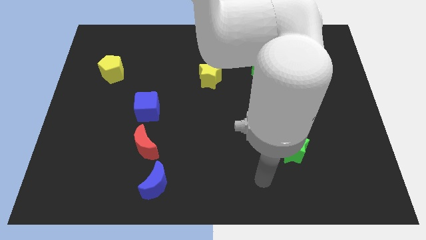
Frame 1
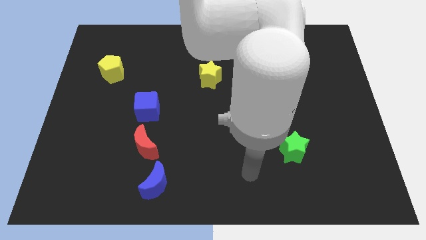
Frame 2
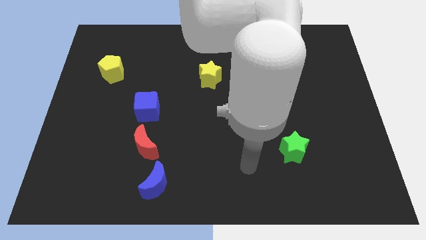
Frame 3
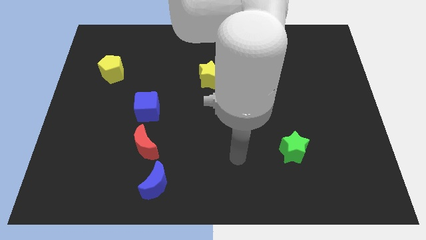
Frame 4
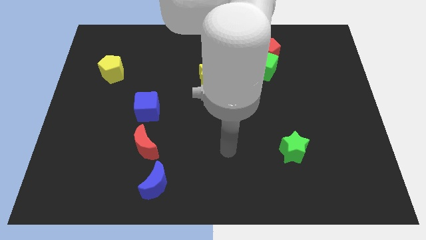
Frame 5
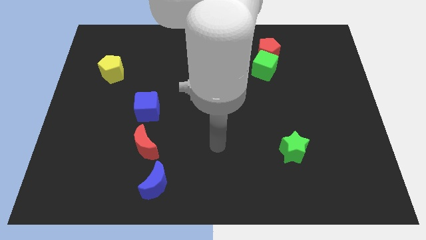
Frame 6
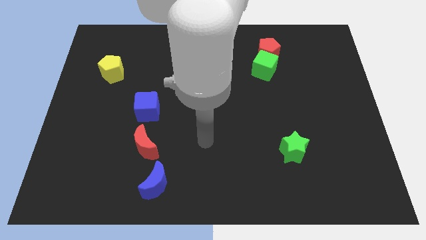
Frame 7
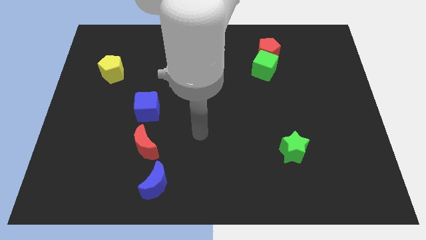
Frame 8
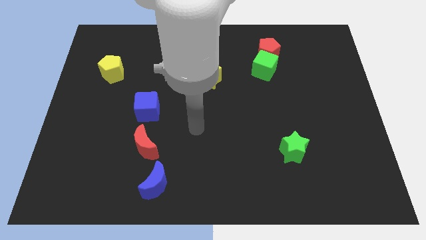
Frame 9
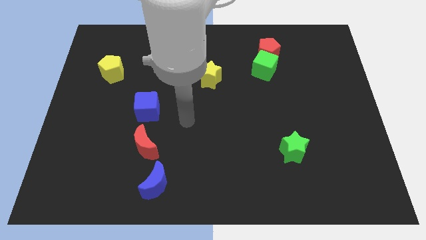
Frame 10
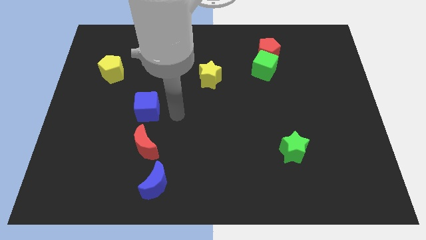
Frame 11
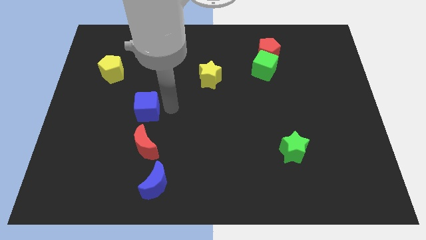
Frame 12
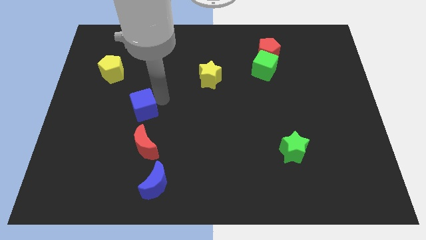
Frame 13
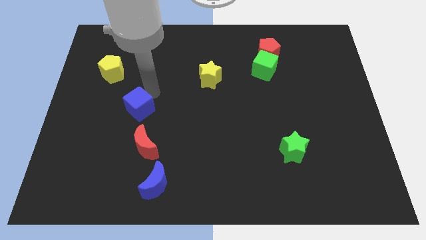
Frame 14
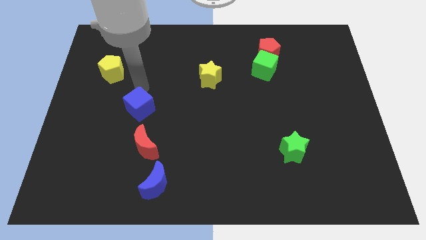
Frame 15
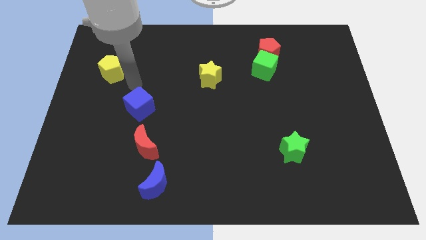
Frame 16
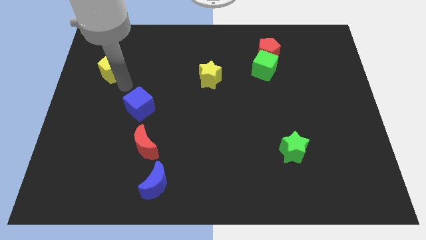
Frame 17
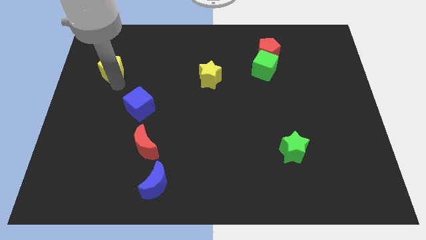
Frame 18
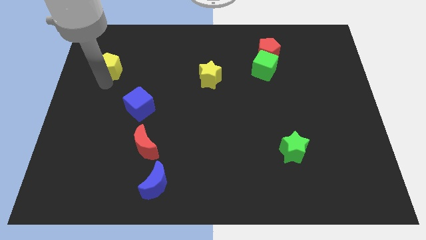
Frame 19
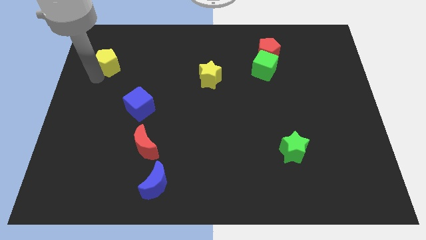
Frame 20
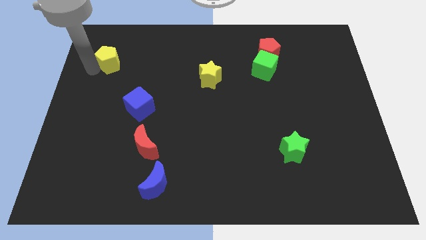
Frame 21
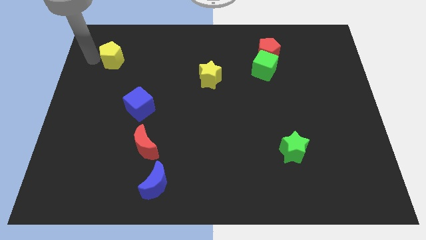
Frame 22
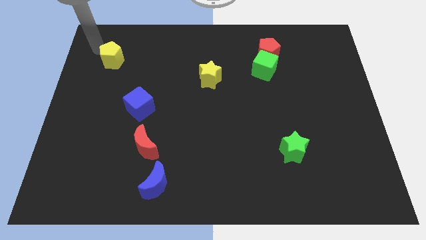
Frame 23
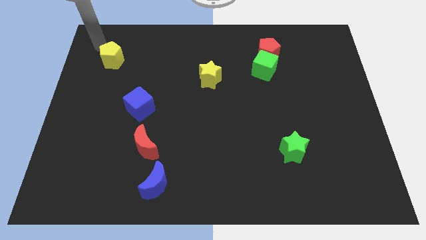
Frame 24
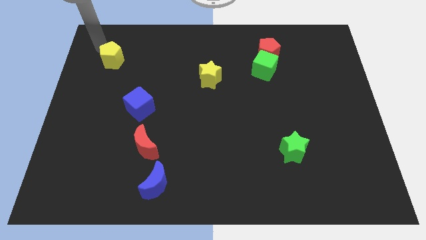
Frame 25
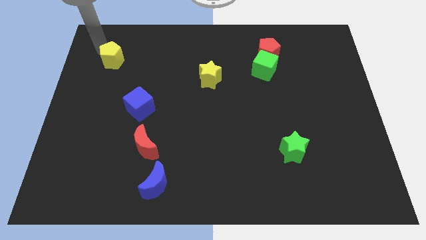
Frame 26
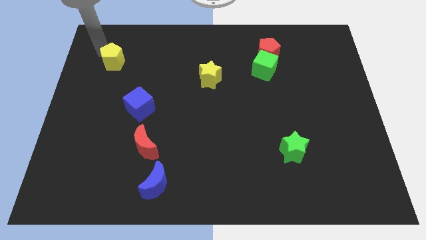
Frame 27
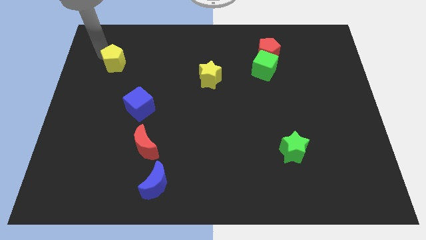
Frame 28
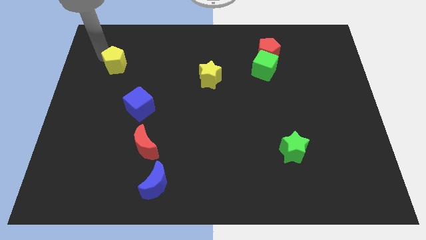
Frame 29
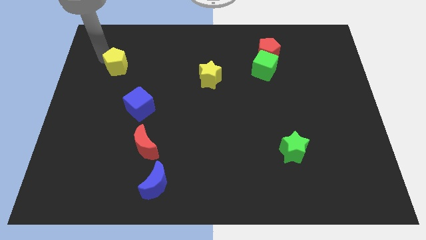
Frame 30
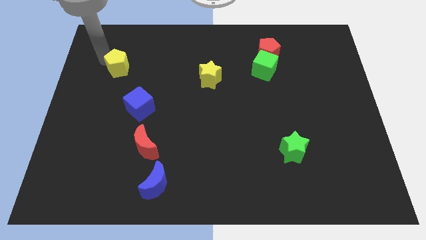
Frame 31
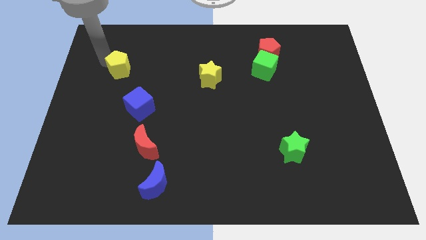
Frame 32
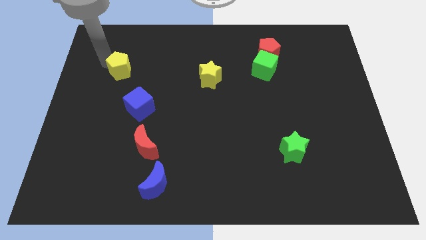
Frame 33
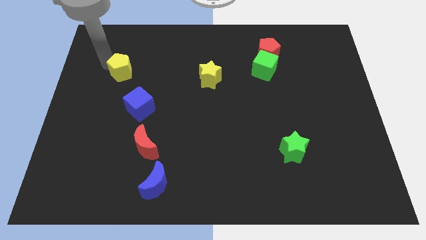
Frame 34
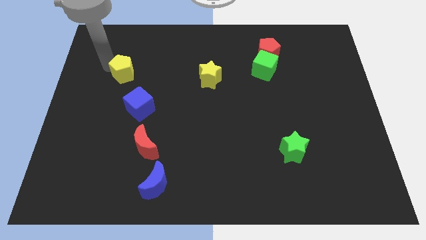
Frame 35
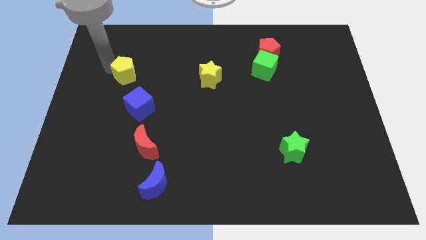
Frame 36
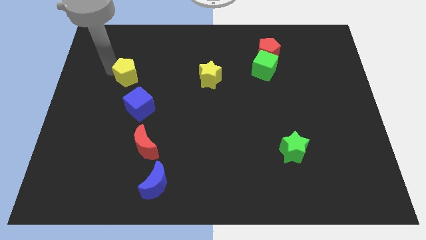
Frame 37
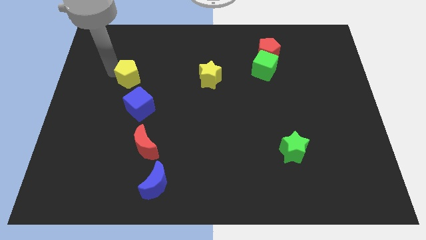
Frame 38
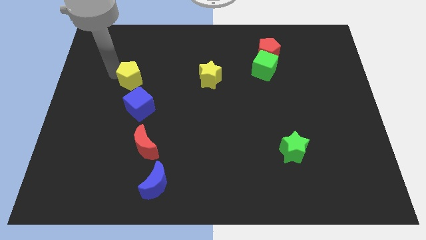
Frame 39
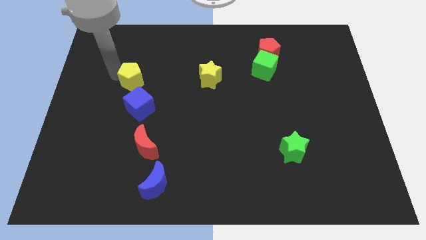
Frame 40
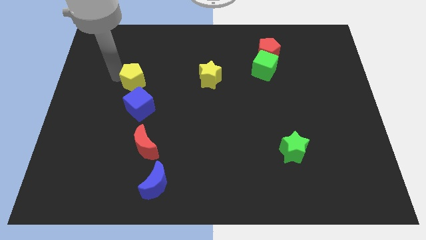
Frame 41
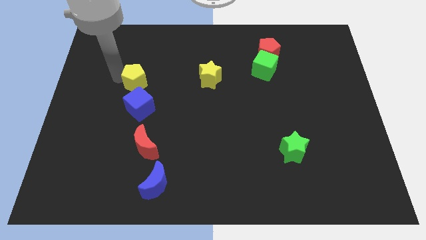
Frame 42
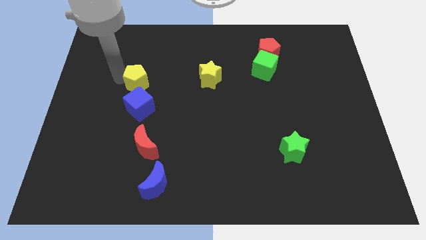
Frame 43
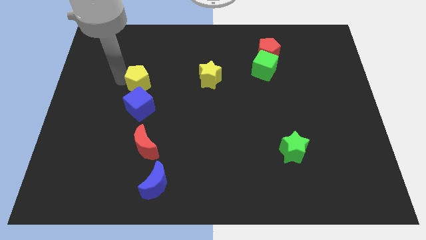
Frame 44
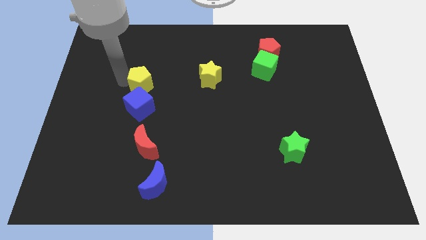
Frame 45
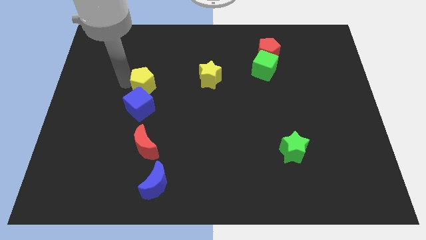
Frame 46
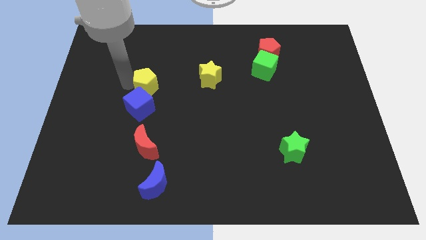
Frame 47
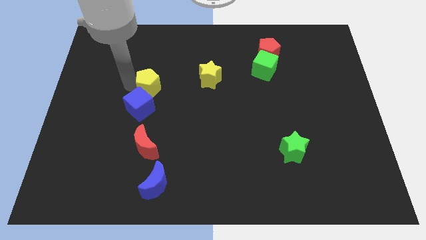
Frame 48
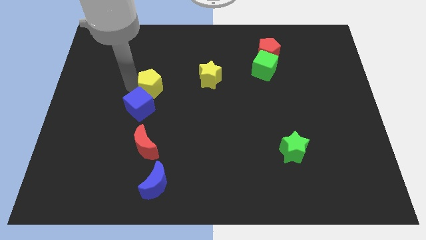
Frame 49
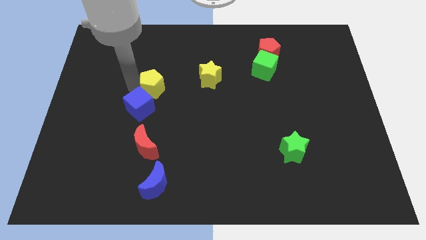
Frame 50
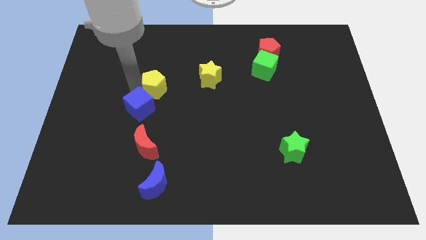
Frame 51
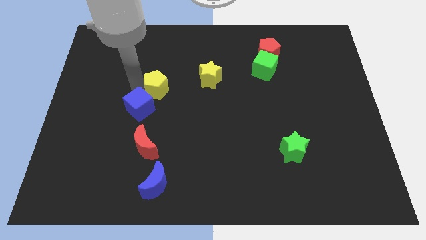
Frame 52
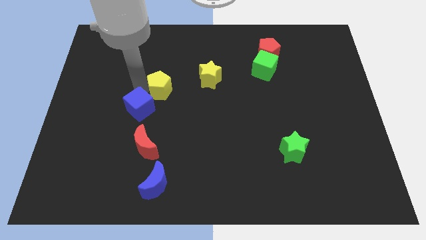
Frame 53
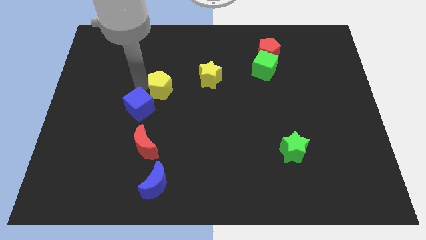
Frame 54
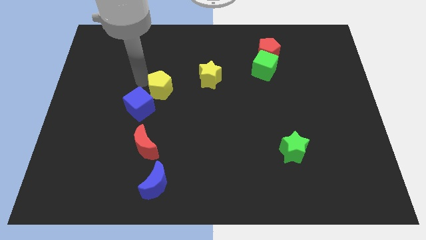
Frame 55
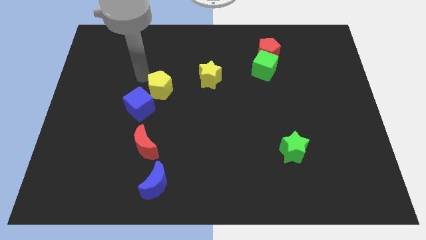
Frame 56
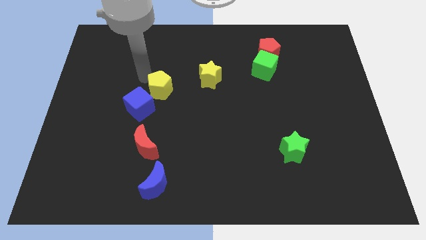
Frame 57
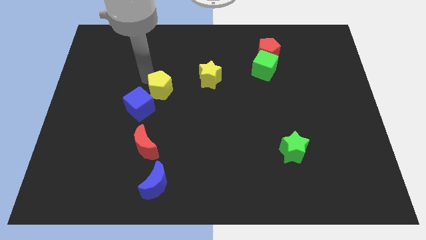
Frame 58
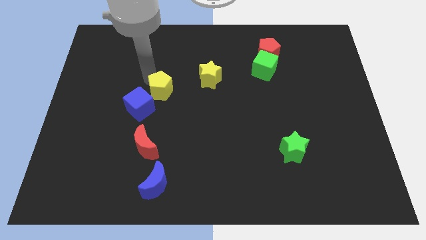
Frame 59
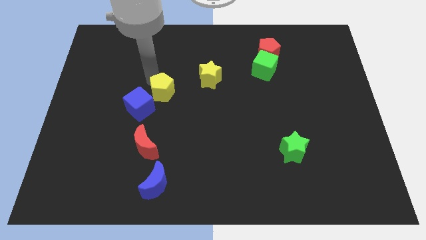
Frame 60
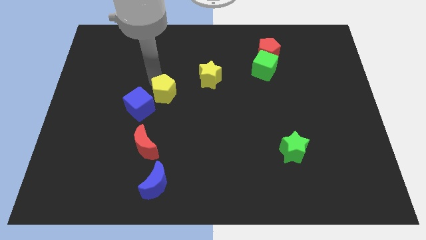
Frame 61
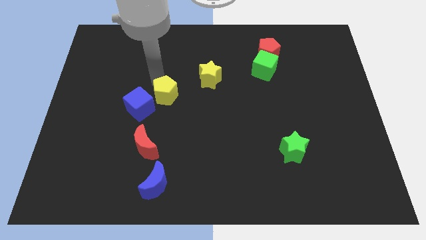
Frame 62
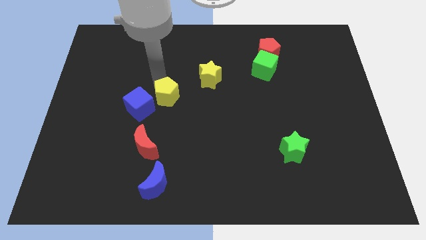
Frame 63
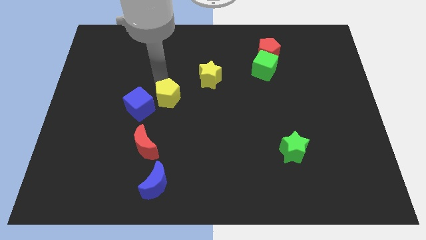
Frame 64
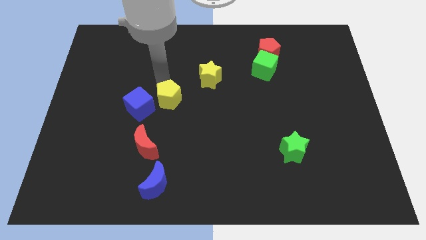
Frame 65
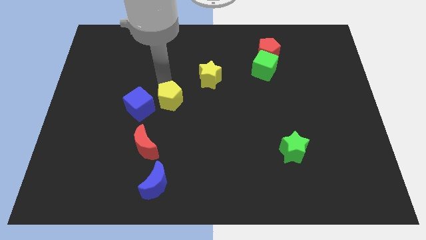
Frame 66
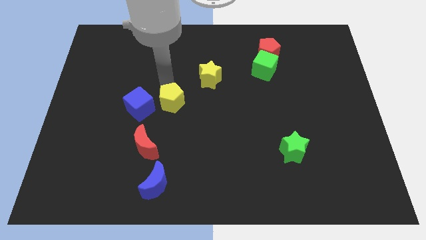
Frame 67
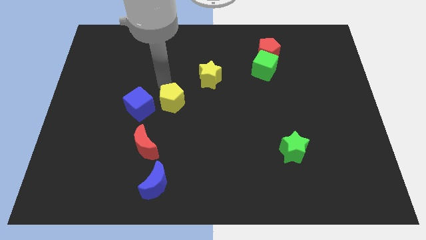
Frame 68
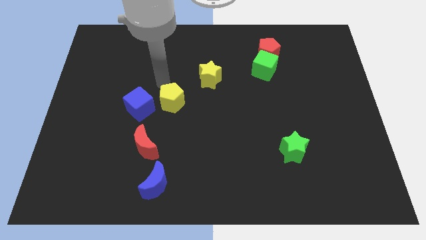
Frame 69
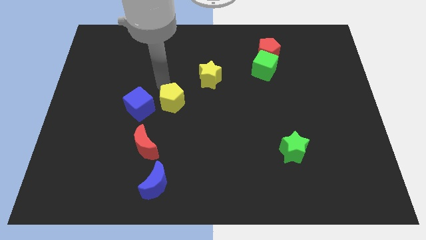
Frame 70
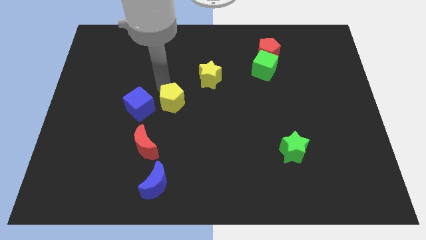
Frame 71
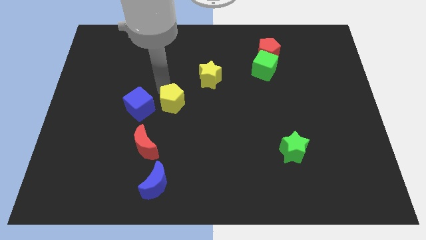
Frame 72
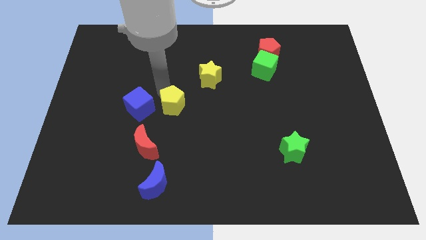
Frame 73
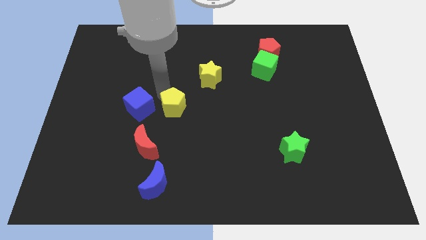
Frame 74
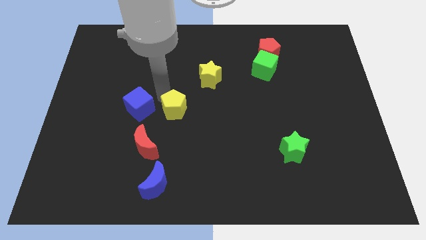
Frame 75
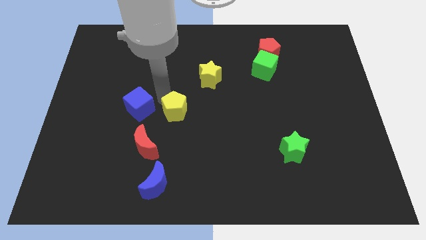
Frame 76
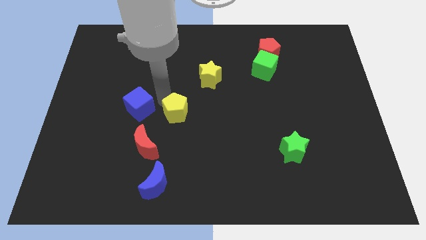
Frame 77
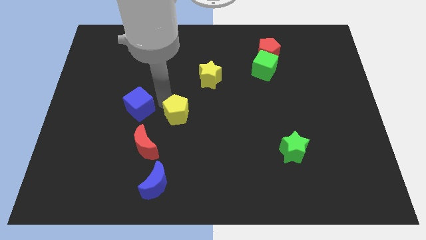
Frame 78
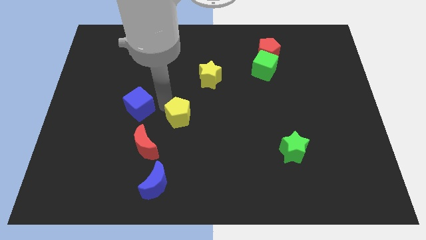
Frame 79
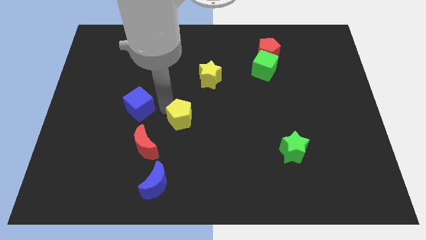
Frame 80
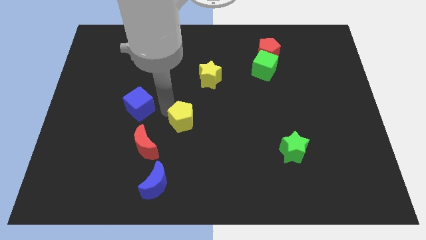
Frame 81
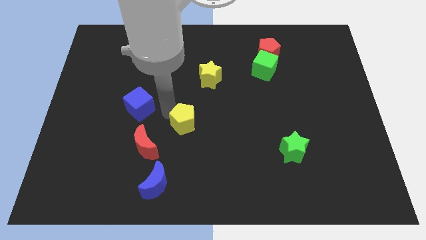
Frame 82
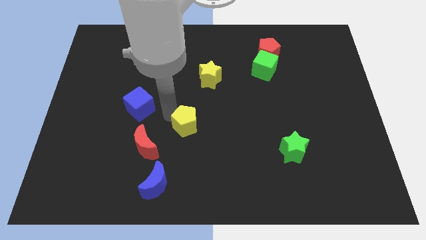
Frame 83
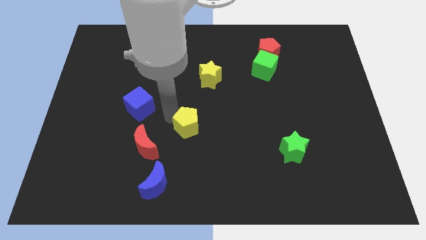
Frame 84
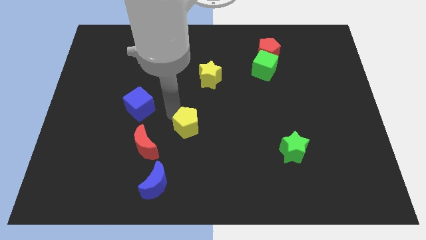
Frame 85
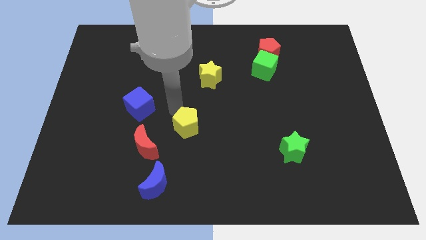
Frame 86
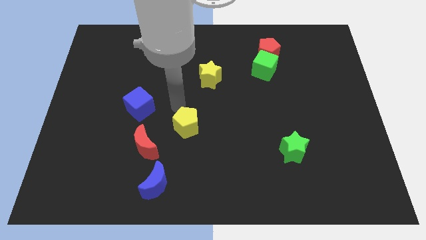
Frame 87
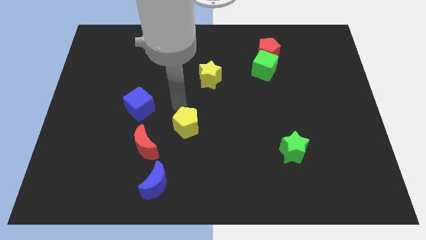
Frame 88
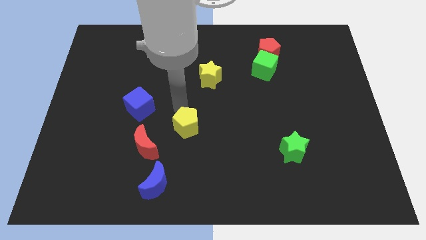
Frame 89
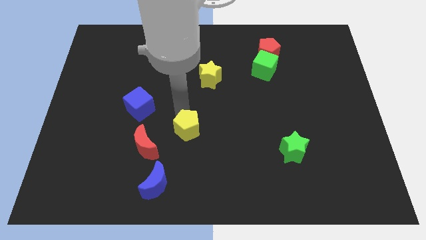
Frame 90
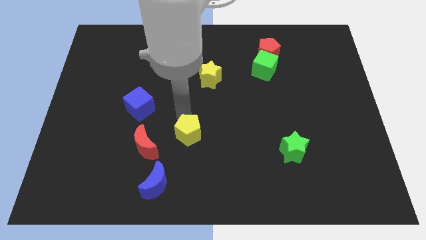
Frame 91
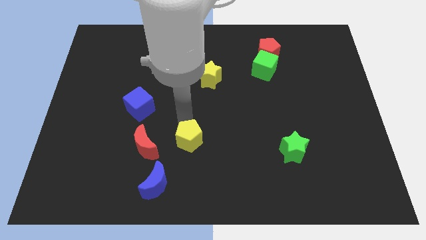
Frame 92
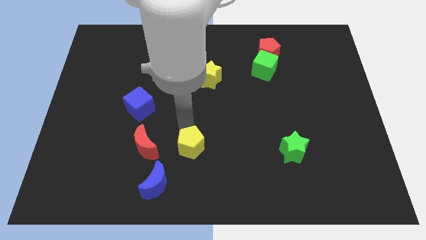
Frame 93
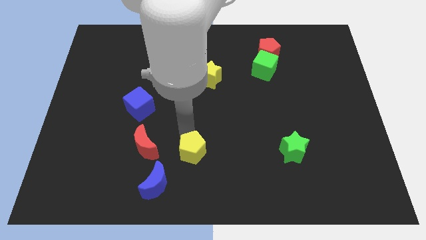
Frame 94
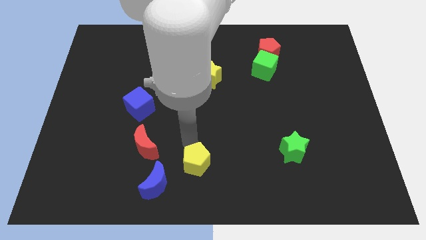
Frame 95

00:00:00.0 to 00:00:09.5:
move the yellow pentagon to the right side of the blue moon
